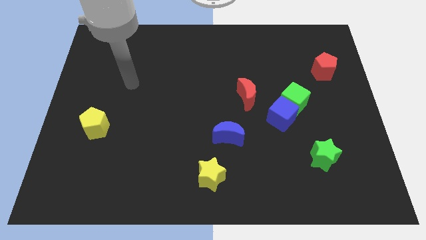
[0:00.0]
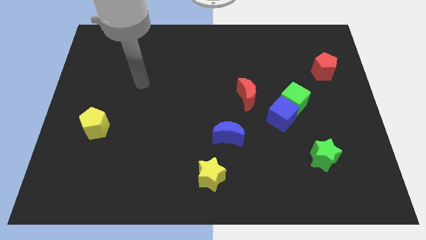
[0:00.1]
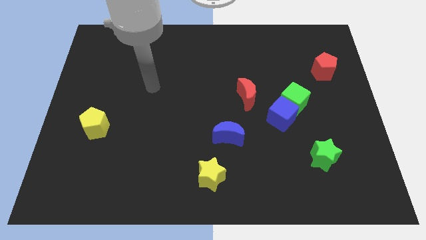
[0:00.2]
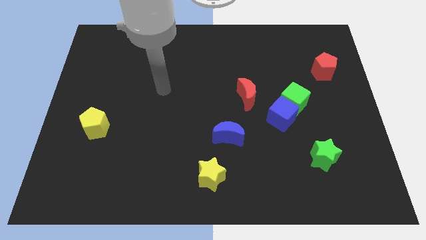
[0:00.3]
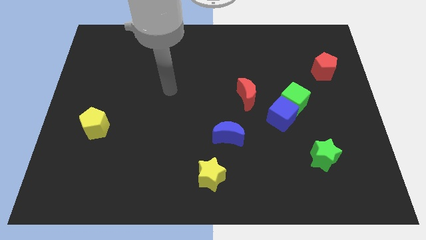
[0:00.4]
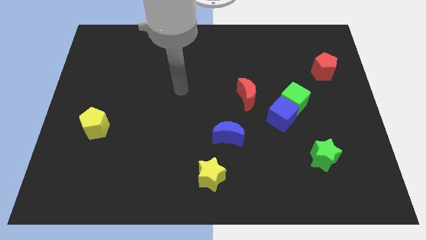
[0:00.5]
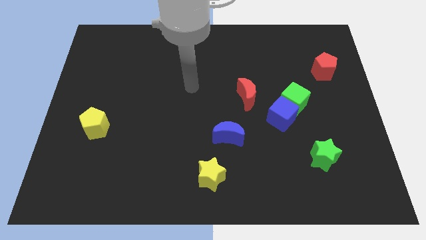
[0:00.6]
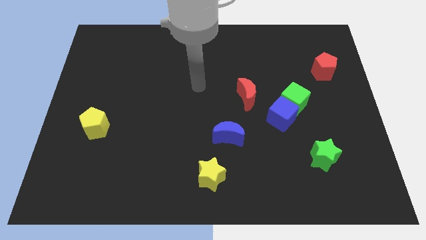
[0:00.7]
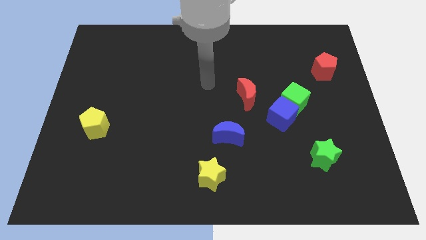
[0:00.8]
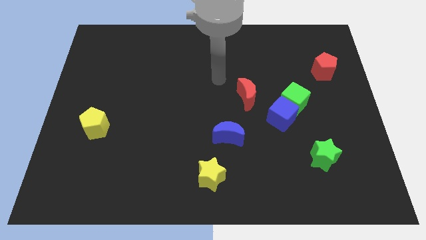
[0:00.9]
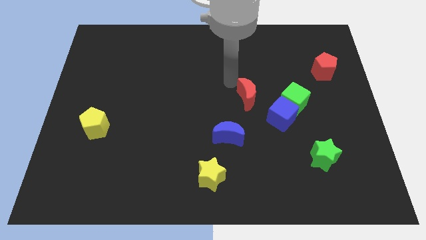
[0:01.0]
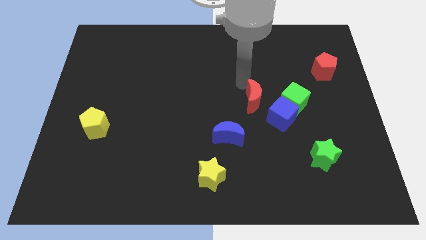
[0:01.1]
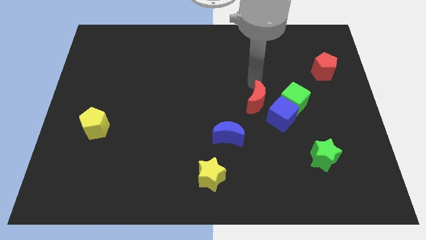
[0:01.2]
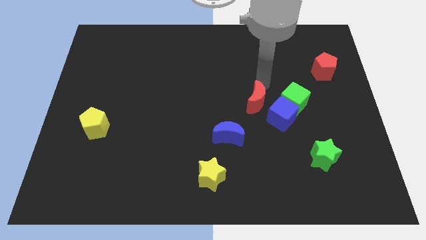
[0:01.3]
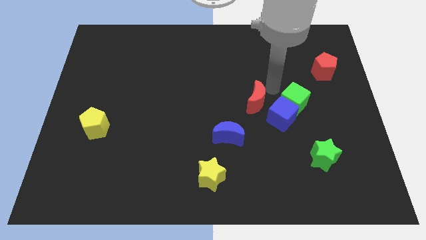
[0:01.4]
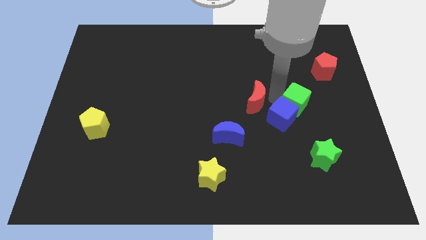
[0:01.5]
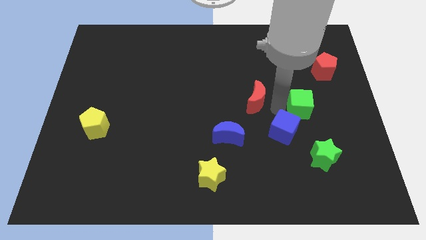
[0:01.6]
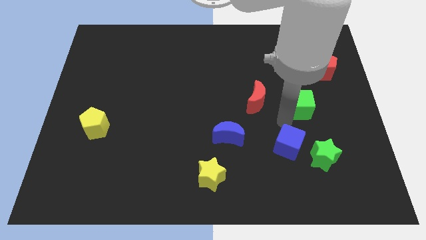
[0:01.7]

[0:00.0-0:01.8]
move the green cube away from the blue cube

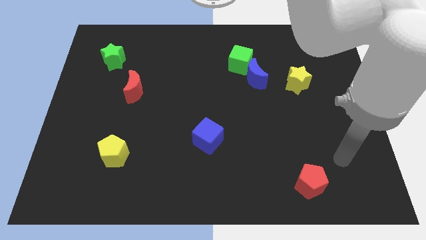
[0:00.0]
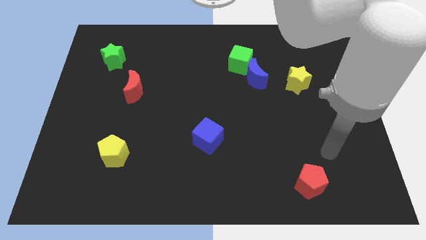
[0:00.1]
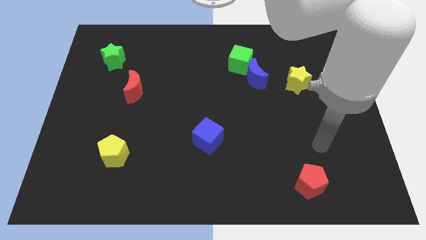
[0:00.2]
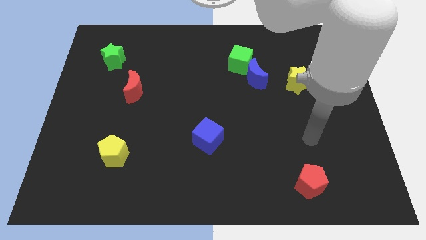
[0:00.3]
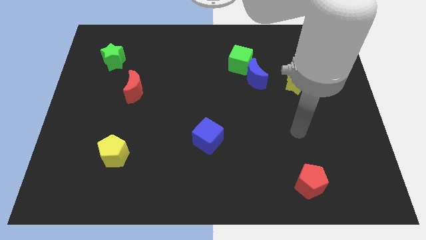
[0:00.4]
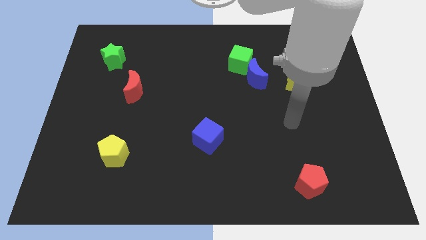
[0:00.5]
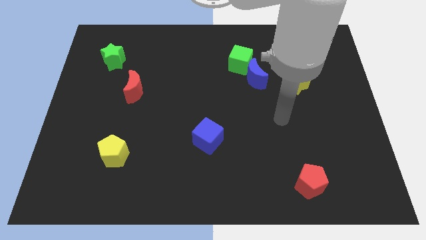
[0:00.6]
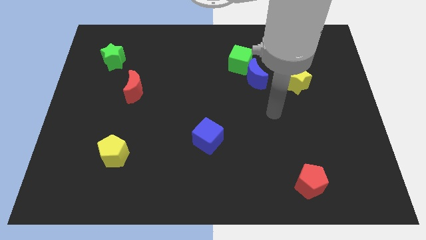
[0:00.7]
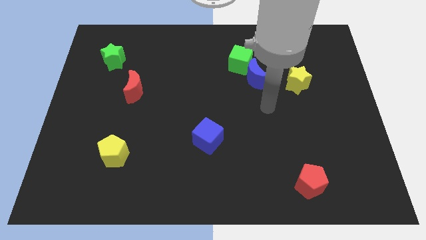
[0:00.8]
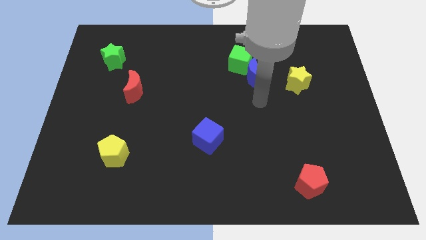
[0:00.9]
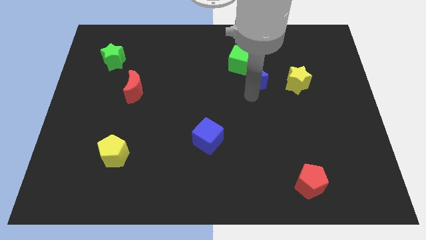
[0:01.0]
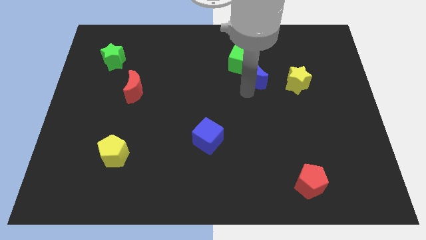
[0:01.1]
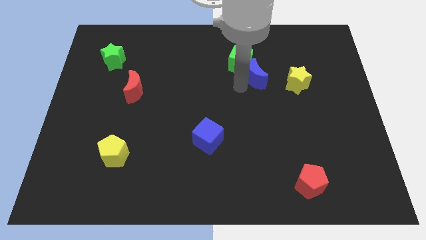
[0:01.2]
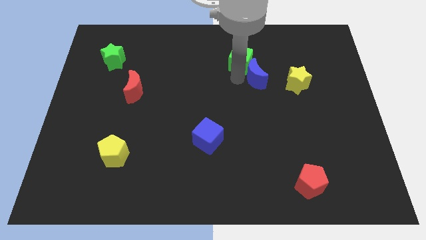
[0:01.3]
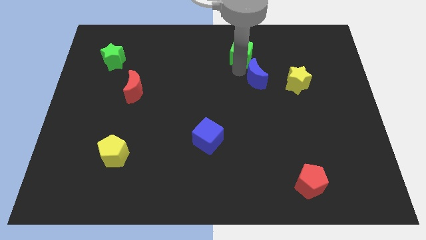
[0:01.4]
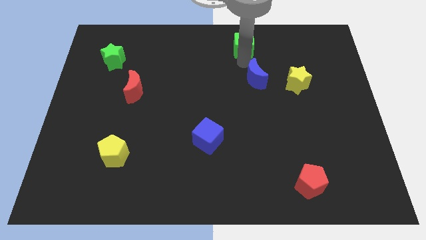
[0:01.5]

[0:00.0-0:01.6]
pull the blue moon apart from the green cube

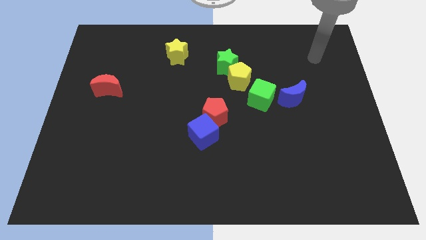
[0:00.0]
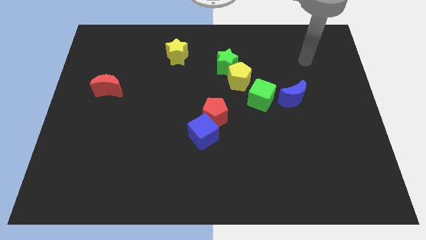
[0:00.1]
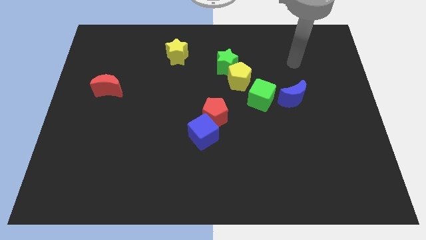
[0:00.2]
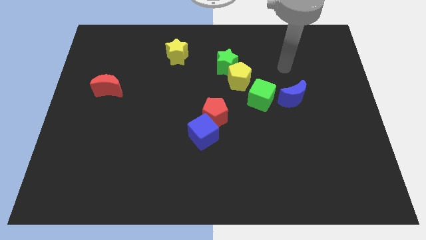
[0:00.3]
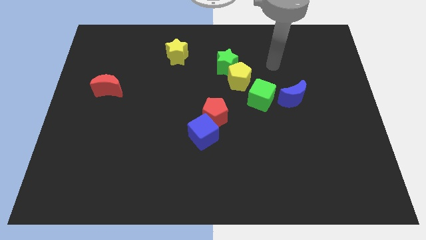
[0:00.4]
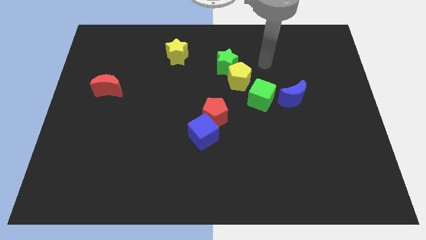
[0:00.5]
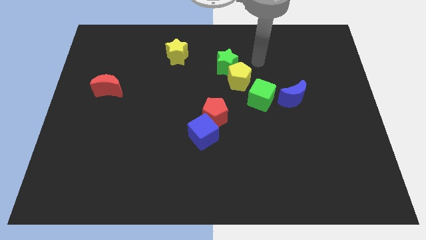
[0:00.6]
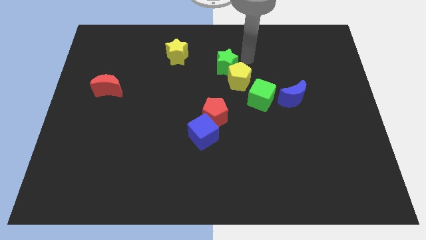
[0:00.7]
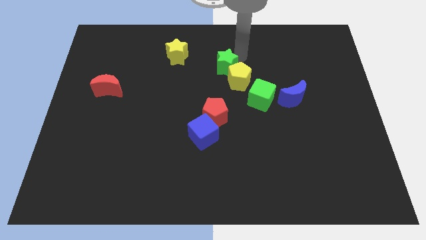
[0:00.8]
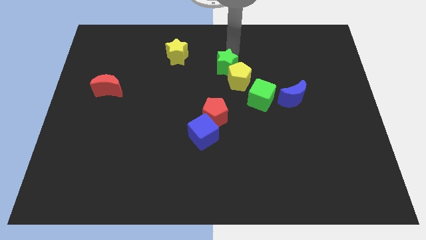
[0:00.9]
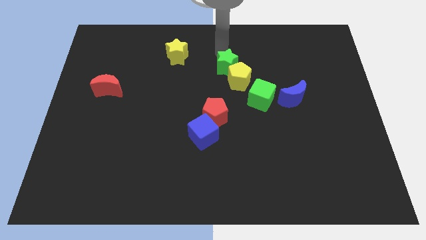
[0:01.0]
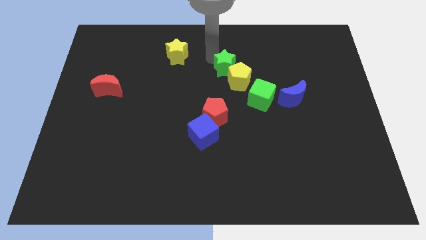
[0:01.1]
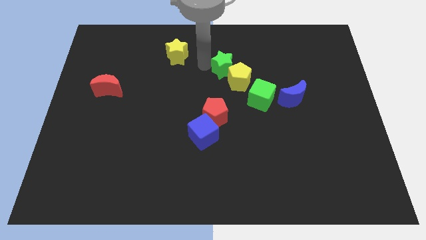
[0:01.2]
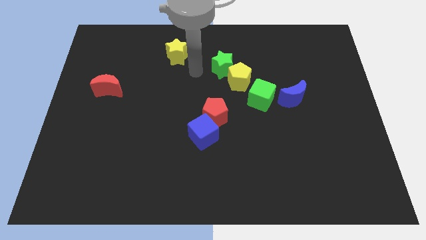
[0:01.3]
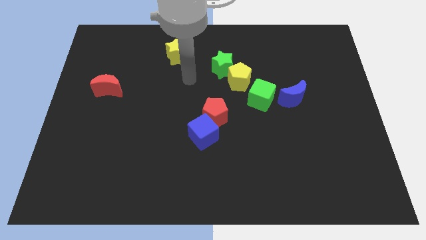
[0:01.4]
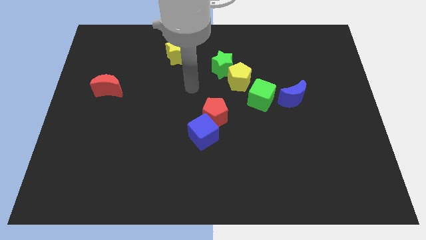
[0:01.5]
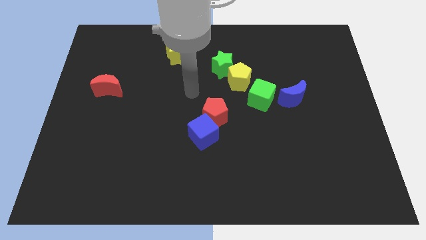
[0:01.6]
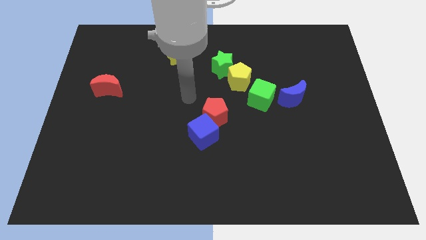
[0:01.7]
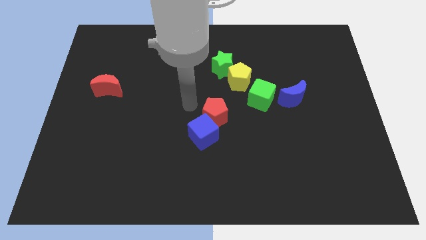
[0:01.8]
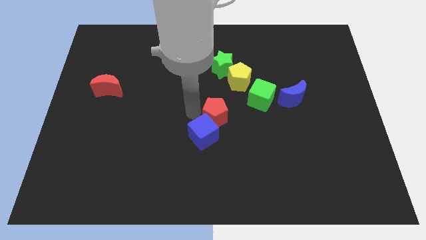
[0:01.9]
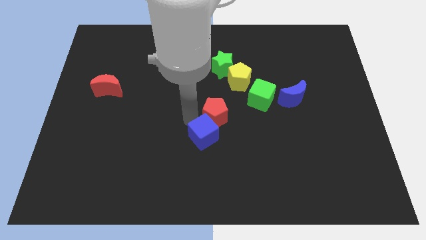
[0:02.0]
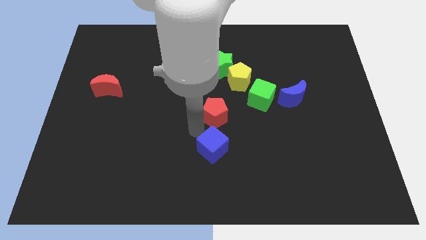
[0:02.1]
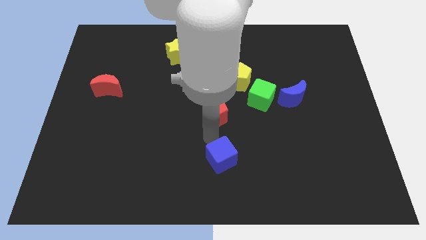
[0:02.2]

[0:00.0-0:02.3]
pull the red pentagon apart from the blue cube

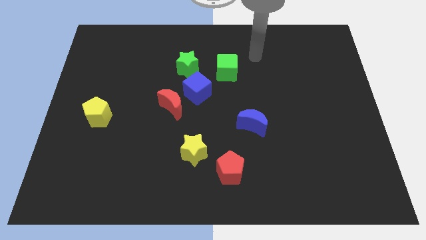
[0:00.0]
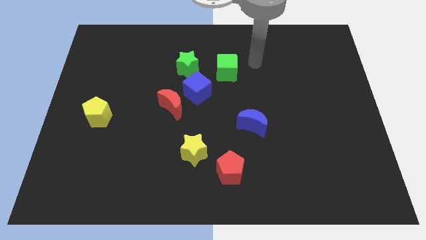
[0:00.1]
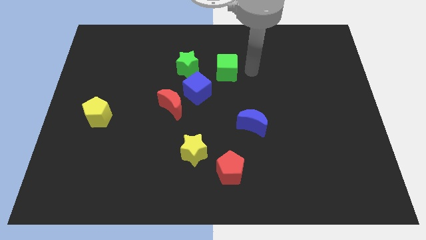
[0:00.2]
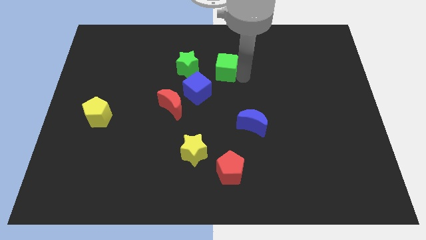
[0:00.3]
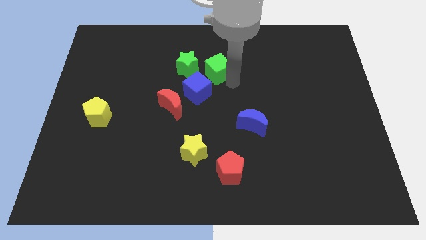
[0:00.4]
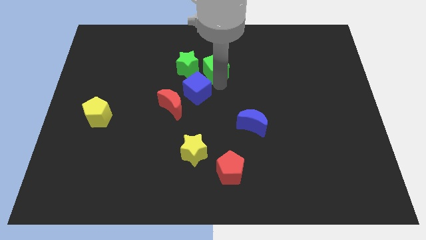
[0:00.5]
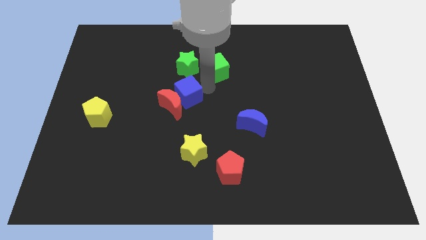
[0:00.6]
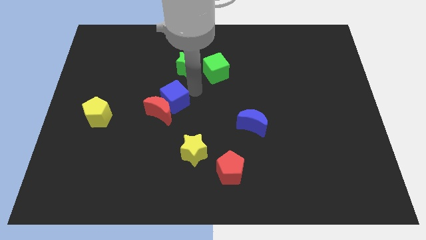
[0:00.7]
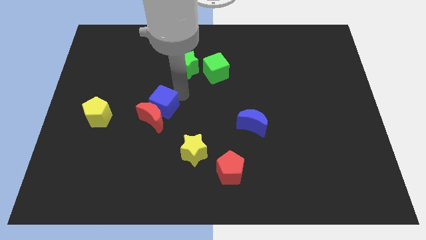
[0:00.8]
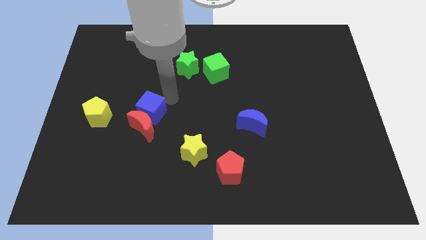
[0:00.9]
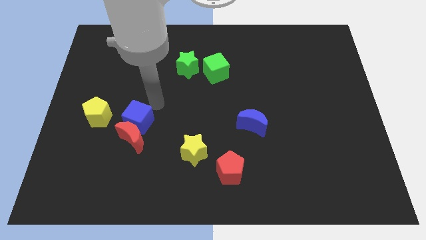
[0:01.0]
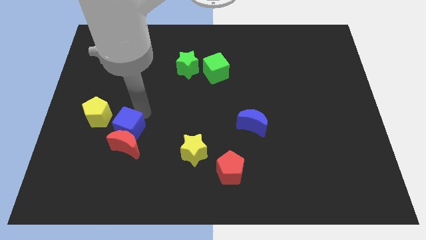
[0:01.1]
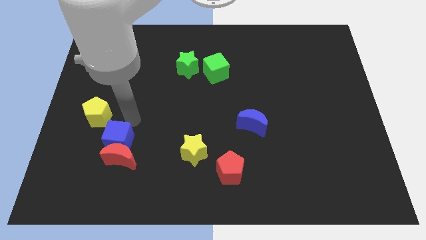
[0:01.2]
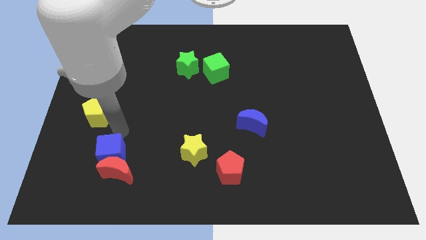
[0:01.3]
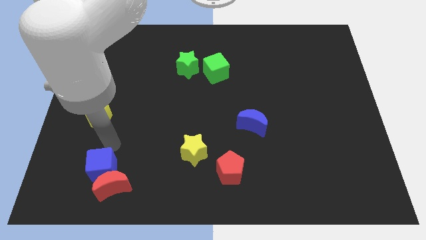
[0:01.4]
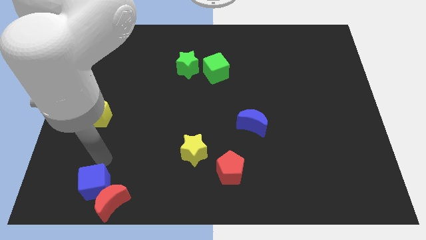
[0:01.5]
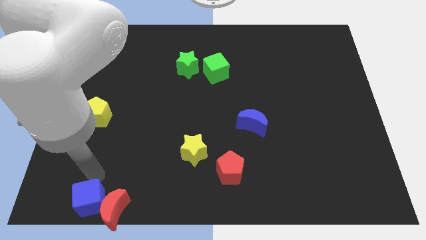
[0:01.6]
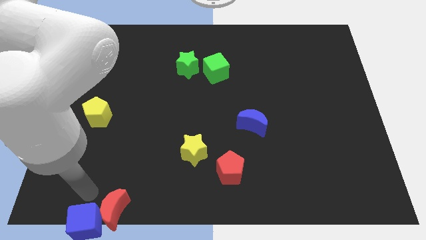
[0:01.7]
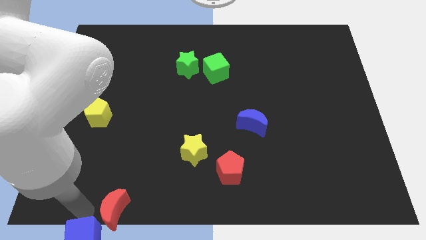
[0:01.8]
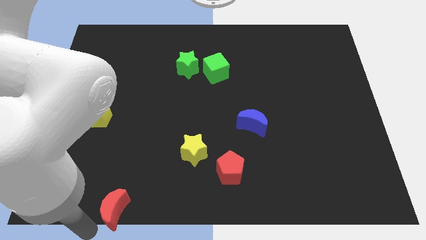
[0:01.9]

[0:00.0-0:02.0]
move the red moon away from the blue cube

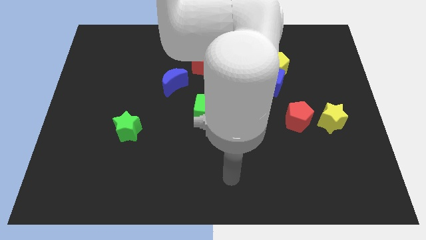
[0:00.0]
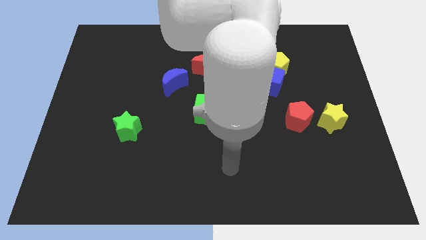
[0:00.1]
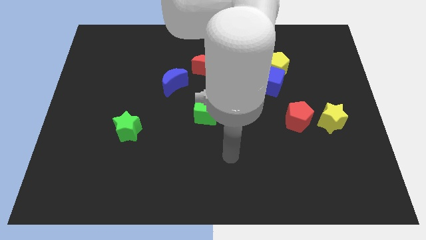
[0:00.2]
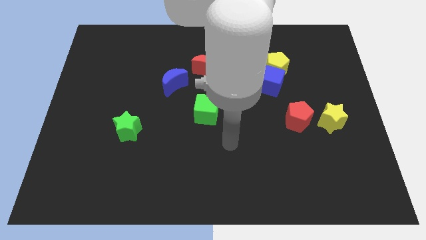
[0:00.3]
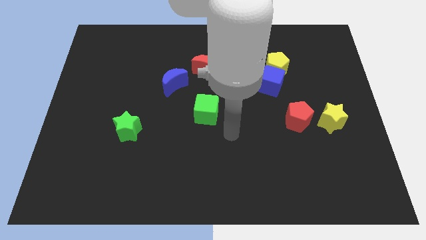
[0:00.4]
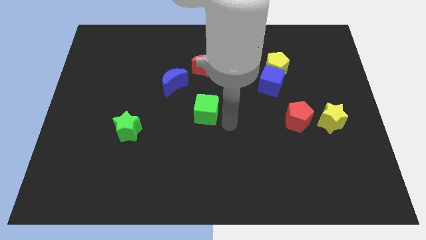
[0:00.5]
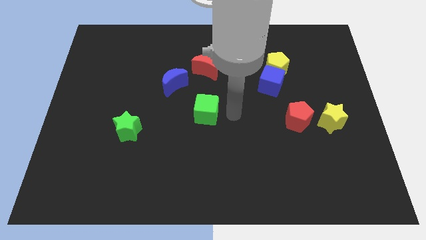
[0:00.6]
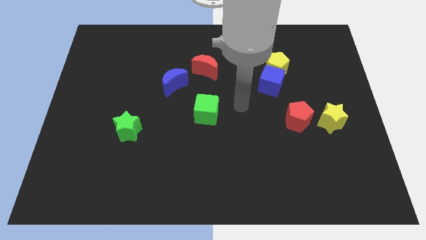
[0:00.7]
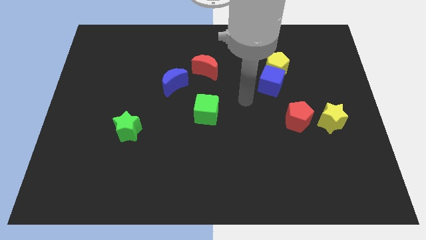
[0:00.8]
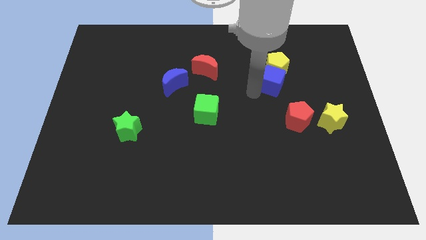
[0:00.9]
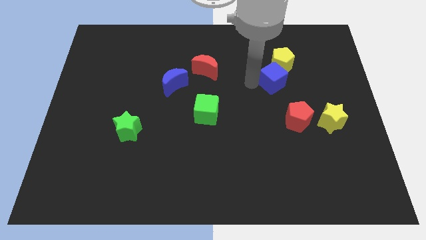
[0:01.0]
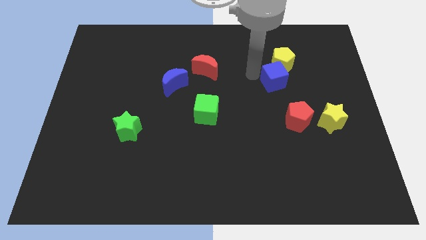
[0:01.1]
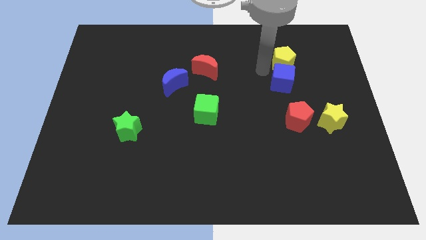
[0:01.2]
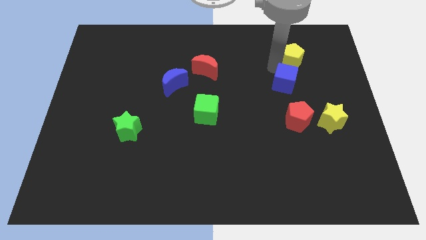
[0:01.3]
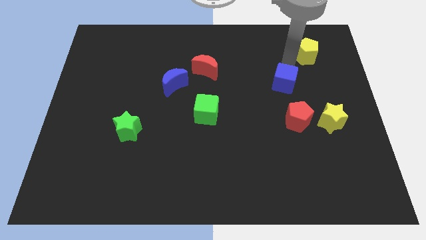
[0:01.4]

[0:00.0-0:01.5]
move the blue cube away from the yellow pentagon
